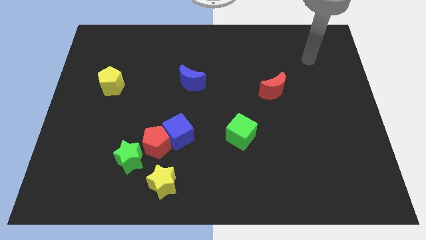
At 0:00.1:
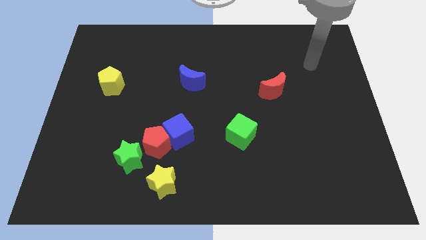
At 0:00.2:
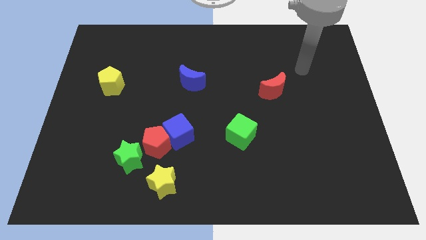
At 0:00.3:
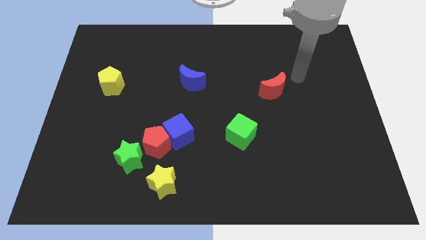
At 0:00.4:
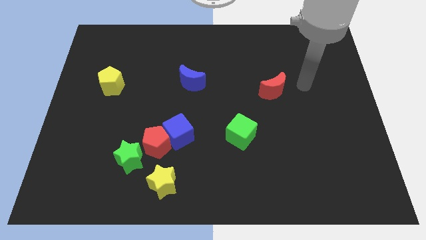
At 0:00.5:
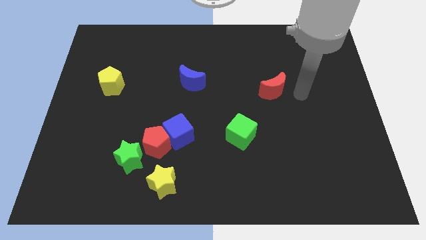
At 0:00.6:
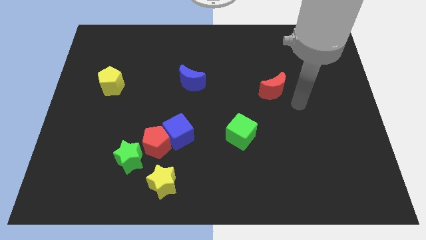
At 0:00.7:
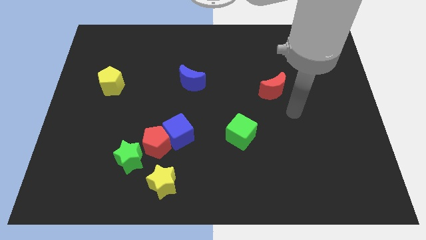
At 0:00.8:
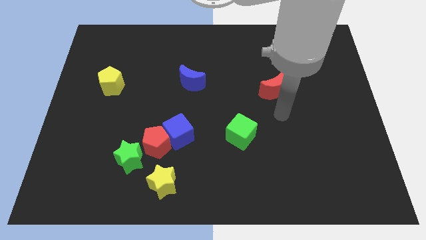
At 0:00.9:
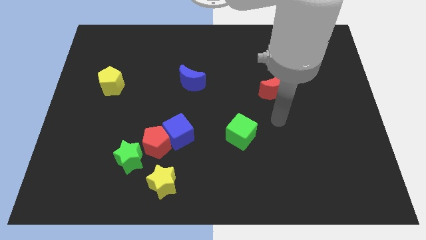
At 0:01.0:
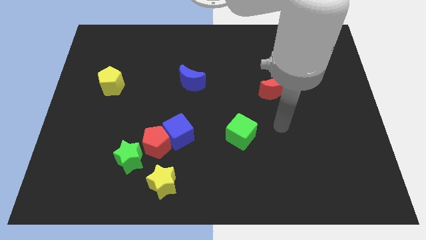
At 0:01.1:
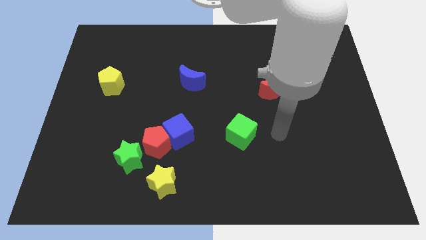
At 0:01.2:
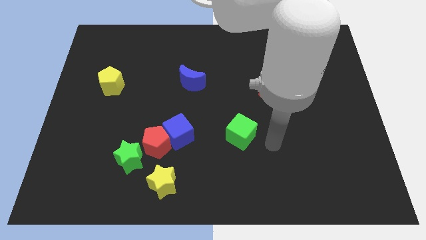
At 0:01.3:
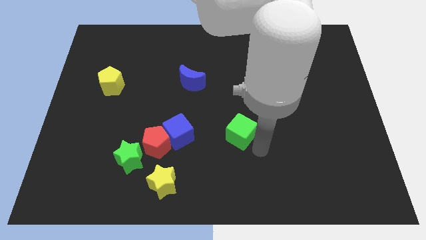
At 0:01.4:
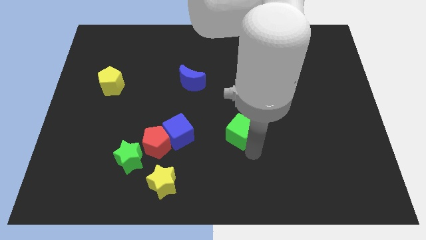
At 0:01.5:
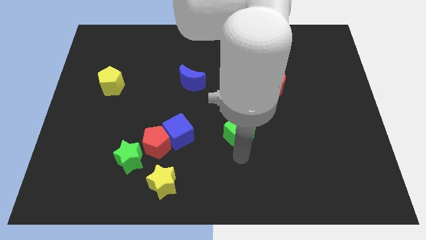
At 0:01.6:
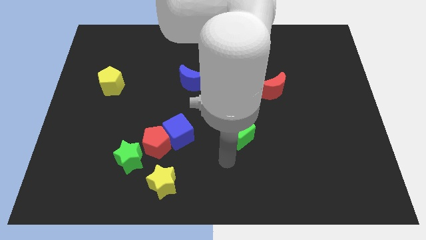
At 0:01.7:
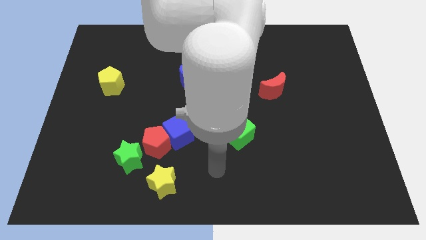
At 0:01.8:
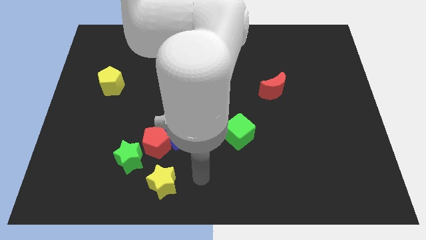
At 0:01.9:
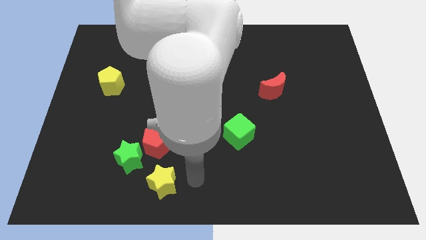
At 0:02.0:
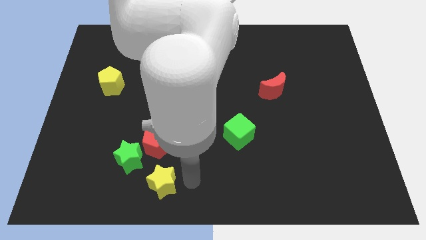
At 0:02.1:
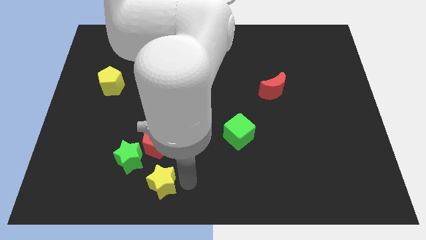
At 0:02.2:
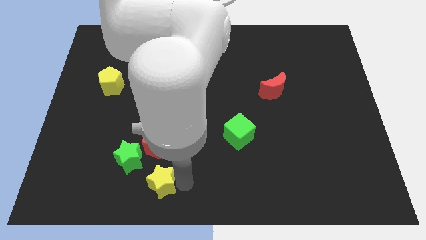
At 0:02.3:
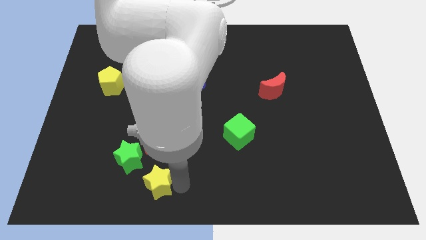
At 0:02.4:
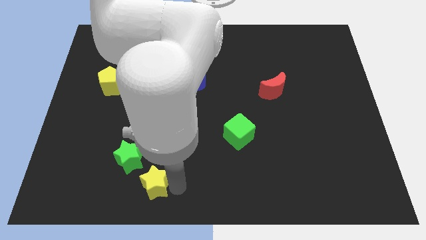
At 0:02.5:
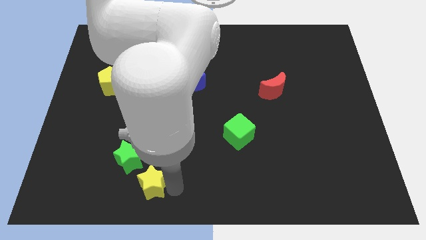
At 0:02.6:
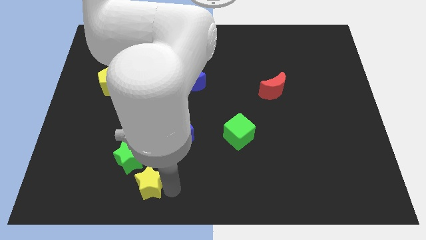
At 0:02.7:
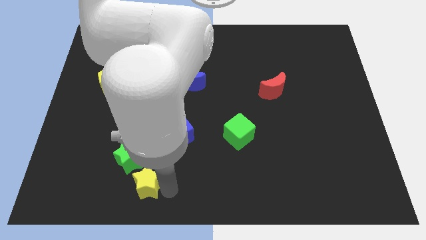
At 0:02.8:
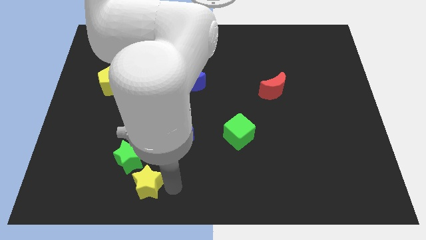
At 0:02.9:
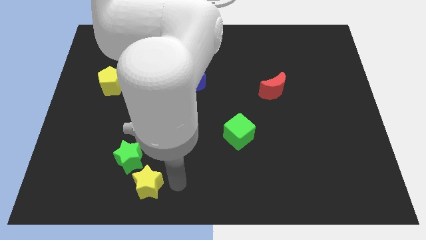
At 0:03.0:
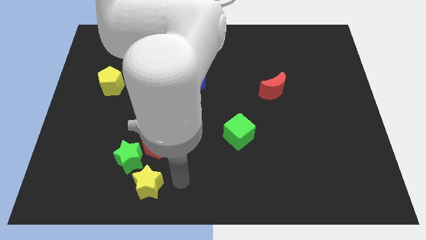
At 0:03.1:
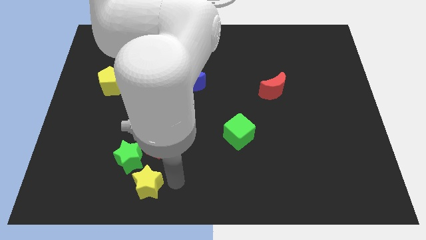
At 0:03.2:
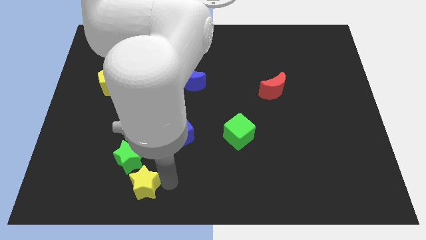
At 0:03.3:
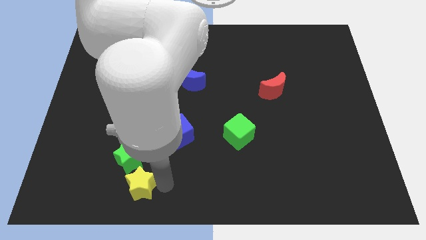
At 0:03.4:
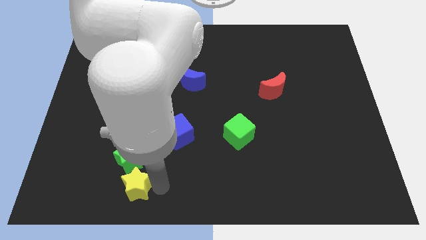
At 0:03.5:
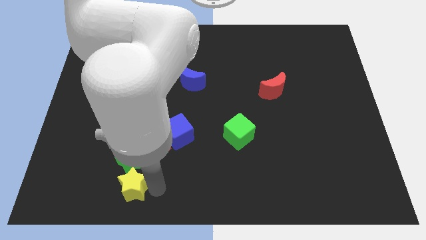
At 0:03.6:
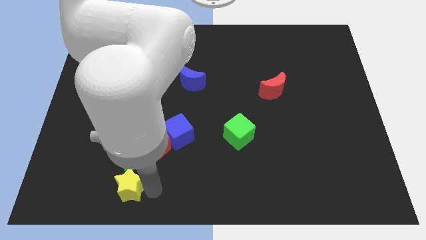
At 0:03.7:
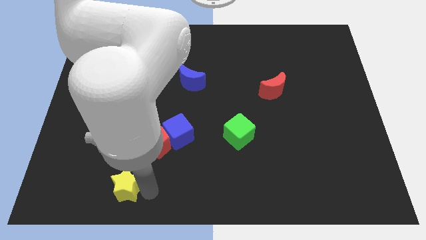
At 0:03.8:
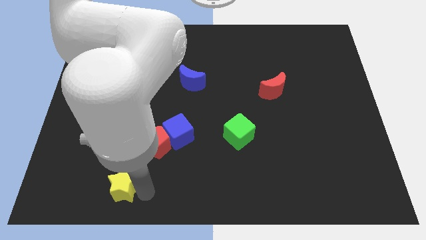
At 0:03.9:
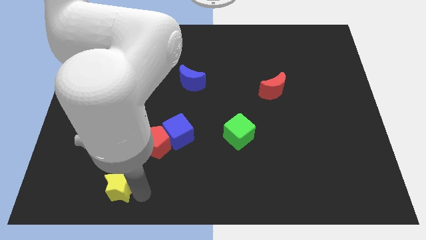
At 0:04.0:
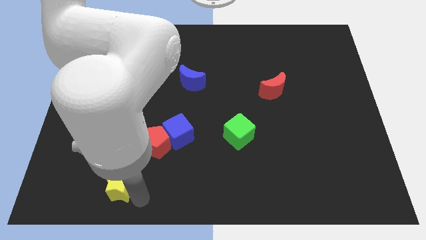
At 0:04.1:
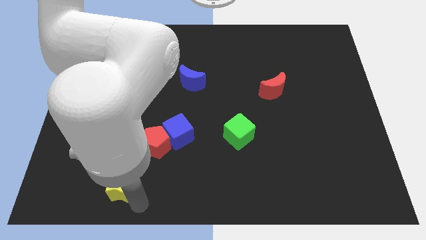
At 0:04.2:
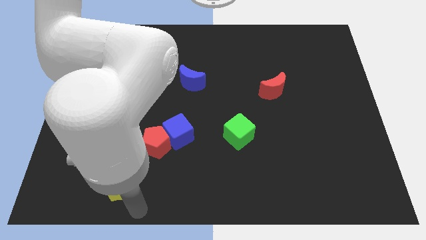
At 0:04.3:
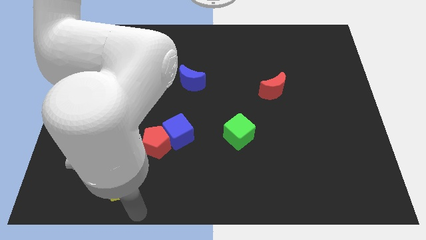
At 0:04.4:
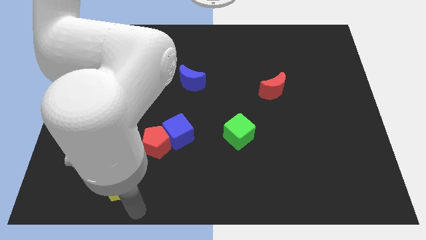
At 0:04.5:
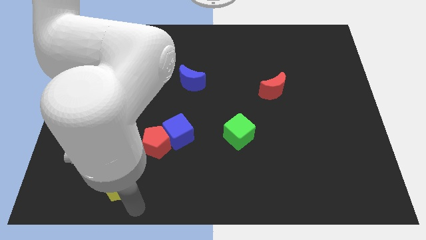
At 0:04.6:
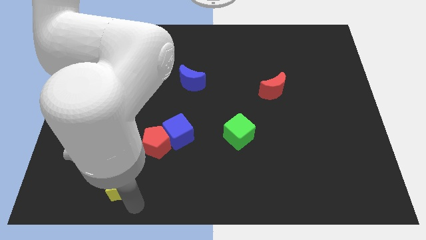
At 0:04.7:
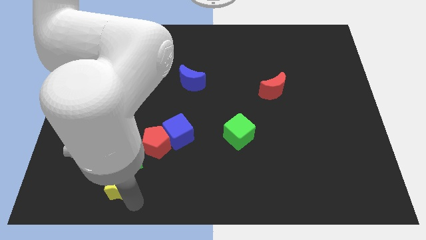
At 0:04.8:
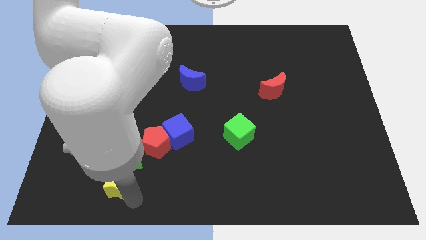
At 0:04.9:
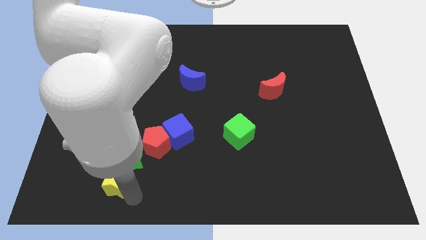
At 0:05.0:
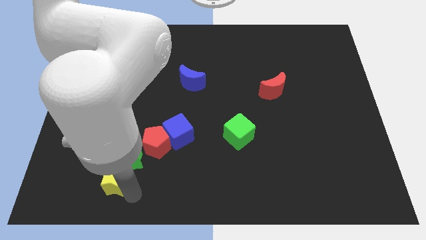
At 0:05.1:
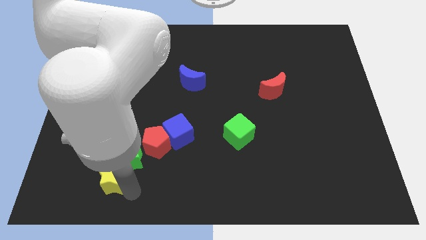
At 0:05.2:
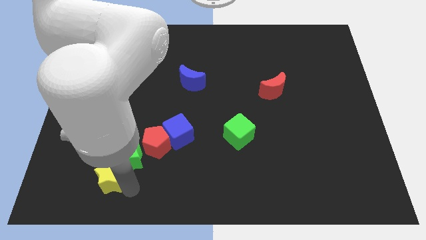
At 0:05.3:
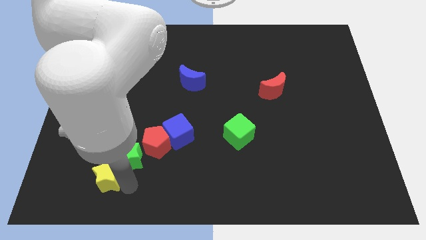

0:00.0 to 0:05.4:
push the yellow star a little diagonally up and to the left

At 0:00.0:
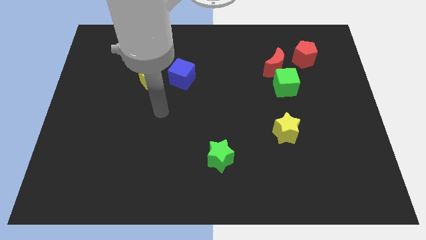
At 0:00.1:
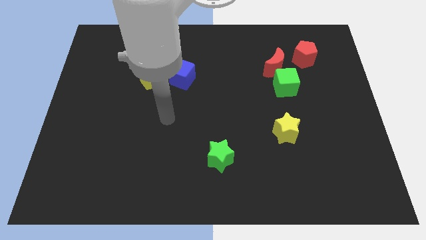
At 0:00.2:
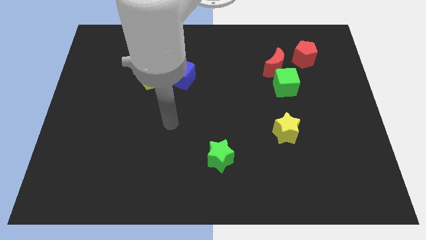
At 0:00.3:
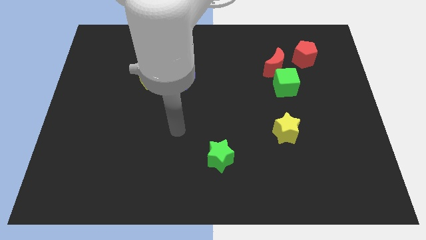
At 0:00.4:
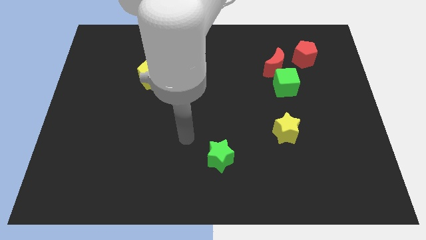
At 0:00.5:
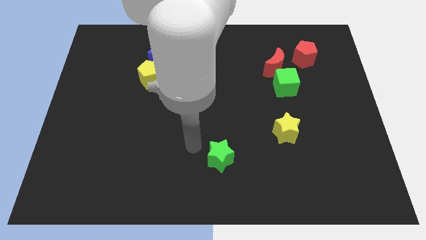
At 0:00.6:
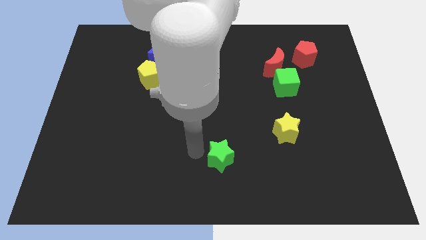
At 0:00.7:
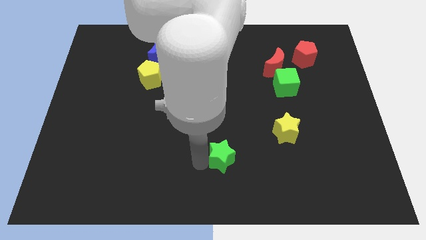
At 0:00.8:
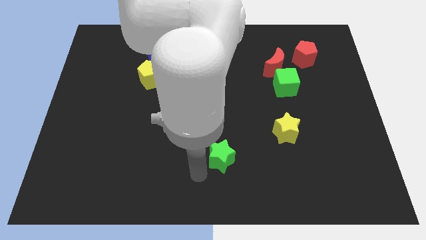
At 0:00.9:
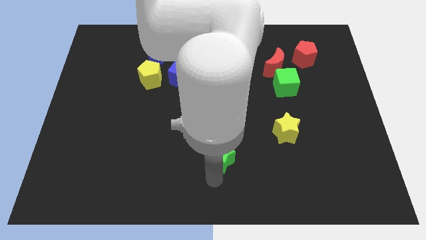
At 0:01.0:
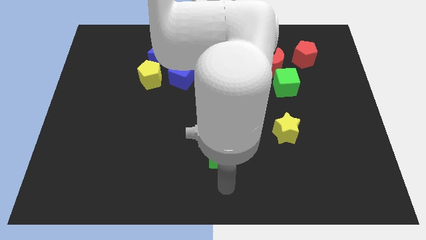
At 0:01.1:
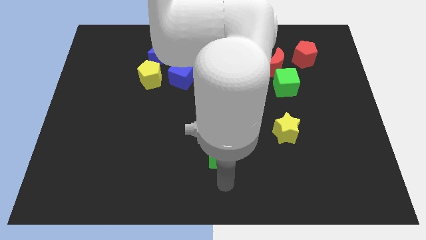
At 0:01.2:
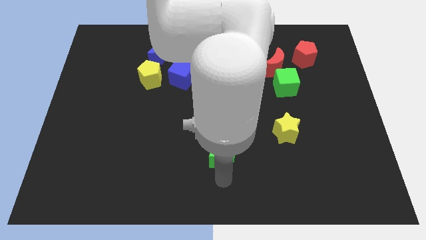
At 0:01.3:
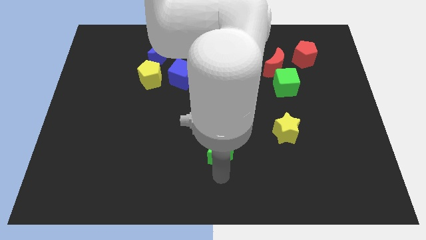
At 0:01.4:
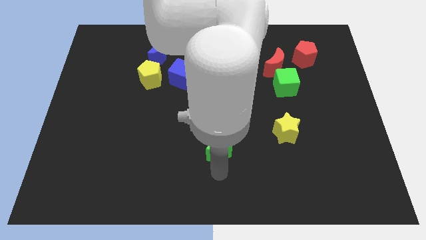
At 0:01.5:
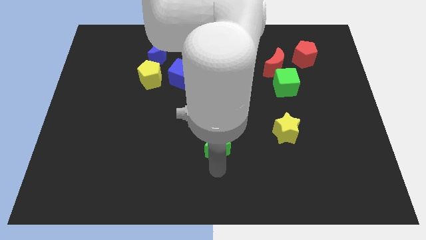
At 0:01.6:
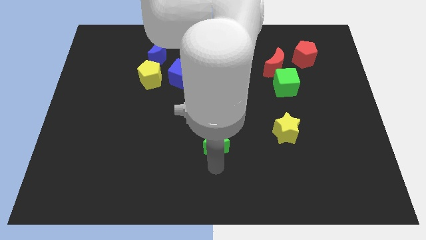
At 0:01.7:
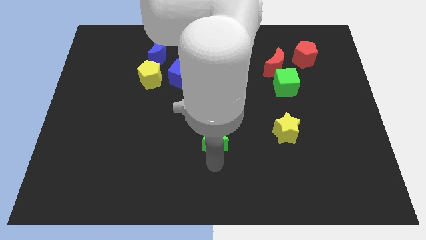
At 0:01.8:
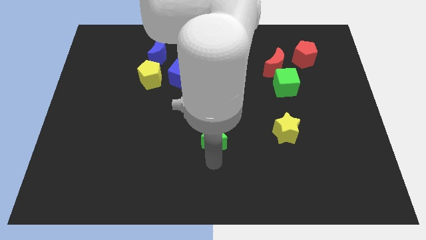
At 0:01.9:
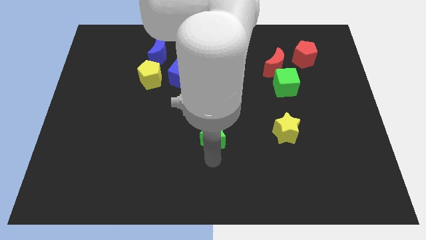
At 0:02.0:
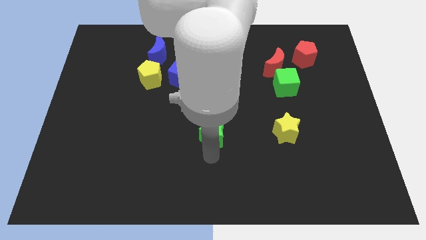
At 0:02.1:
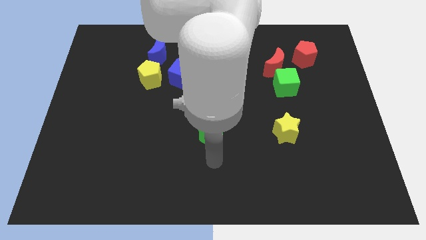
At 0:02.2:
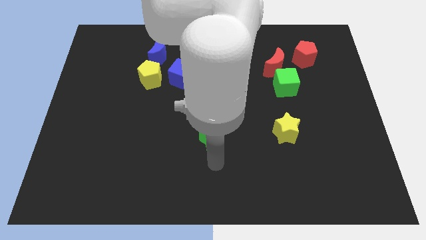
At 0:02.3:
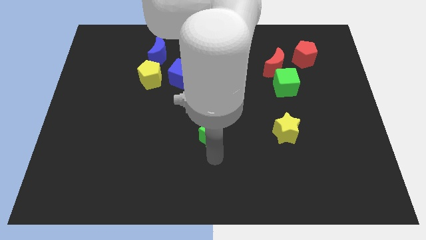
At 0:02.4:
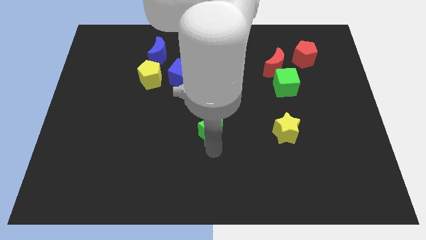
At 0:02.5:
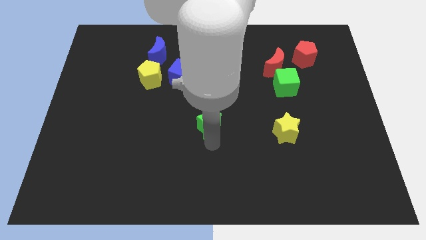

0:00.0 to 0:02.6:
slide the green star up a bit
